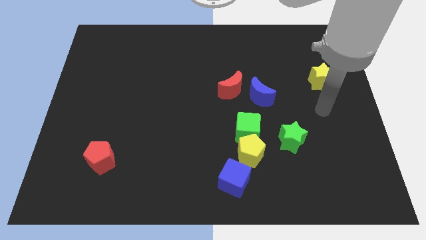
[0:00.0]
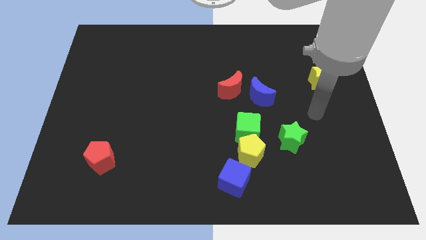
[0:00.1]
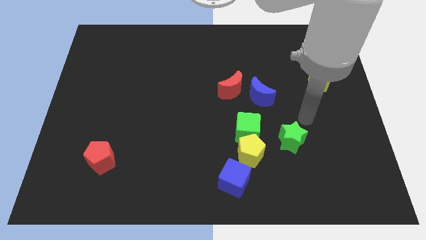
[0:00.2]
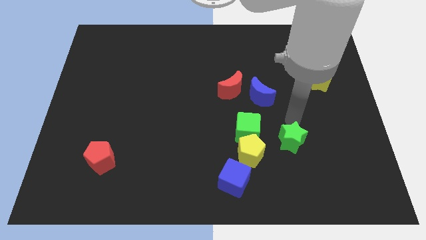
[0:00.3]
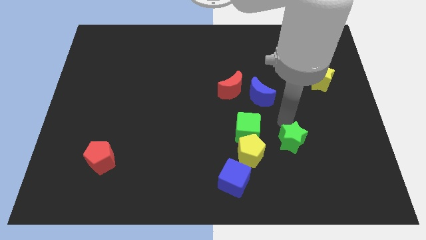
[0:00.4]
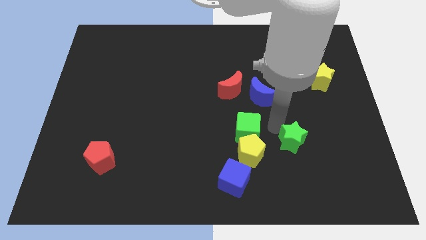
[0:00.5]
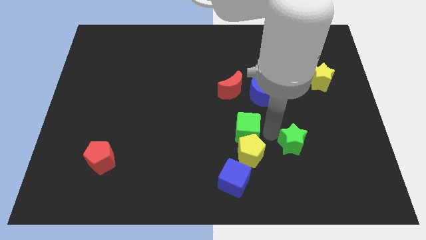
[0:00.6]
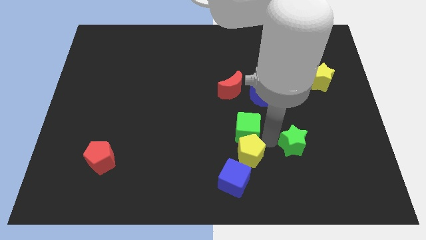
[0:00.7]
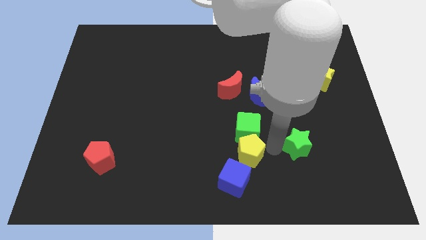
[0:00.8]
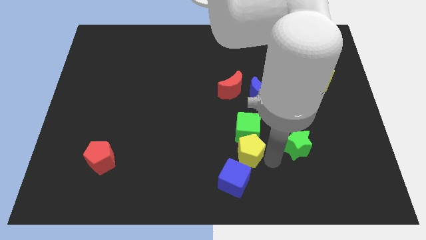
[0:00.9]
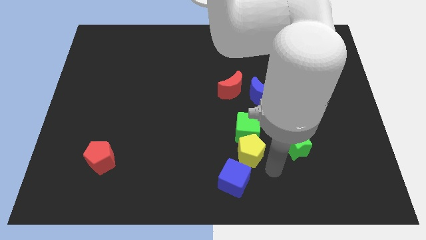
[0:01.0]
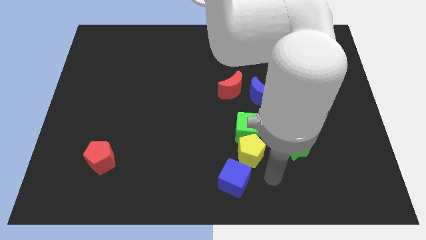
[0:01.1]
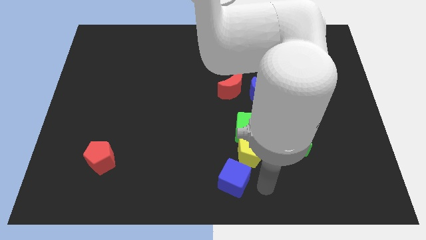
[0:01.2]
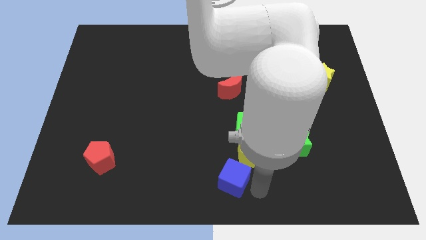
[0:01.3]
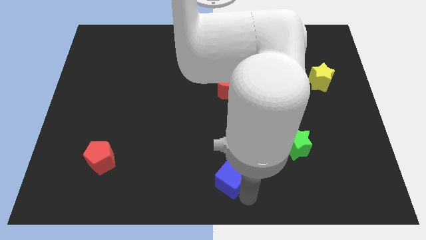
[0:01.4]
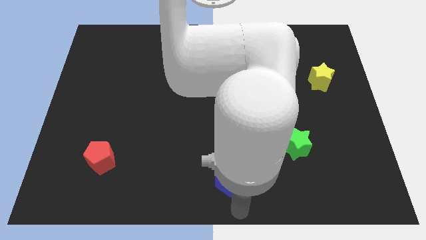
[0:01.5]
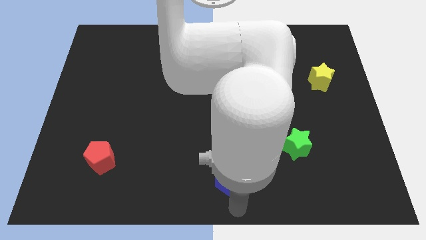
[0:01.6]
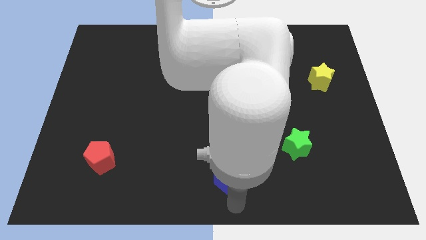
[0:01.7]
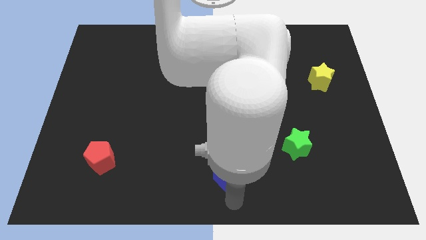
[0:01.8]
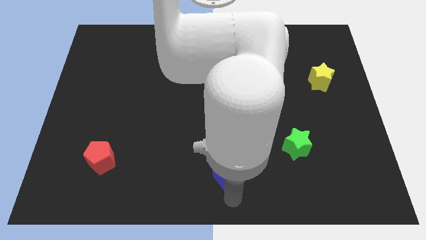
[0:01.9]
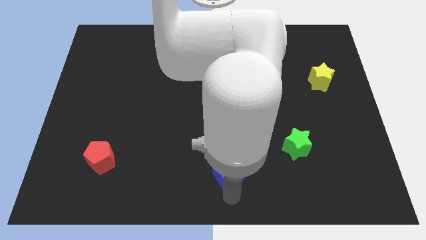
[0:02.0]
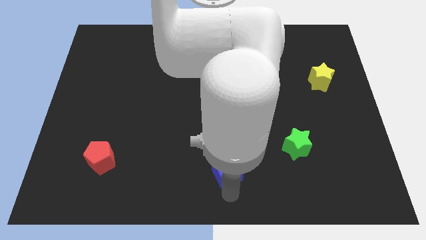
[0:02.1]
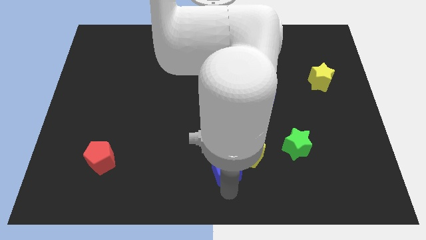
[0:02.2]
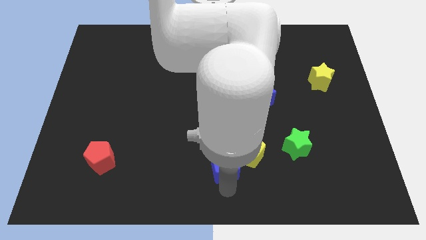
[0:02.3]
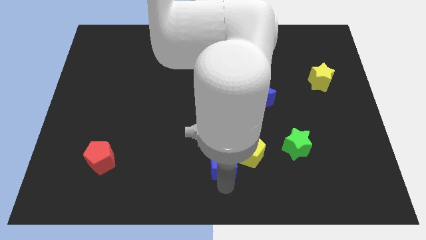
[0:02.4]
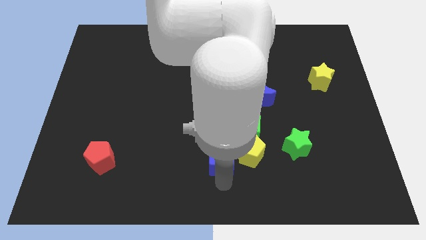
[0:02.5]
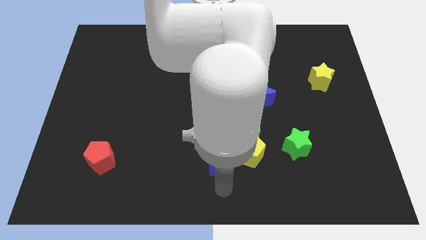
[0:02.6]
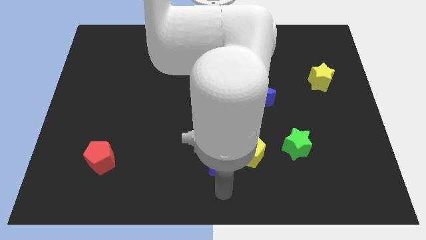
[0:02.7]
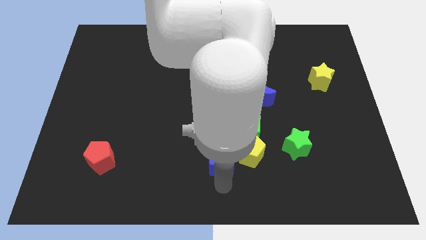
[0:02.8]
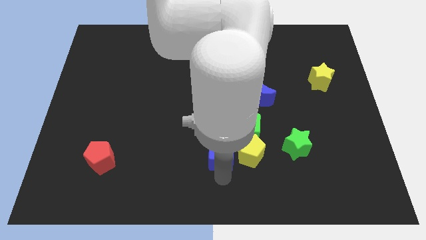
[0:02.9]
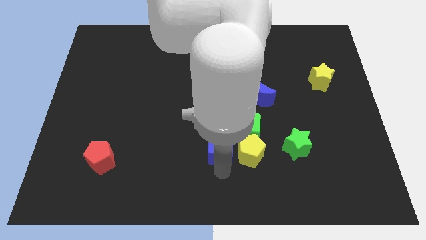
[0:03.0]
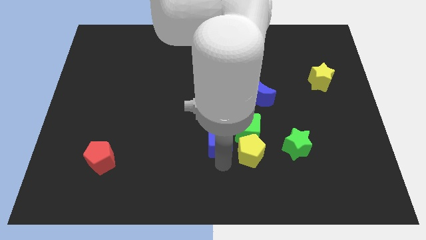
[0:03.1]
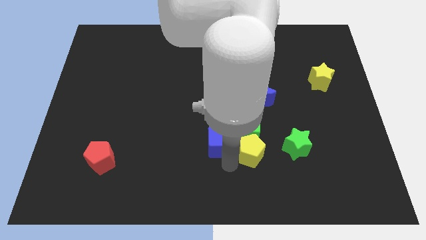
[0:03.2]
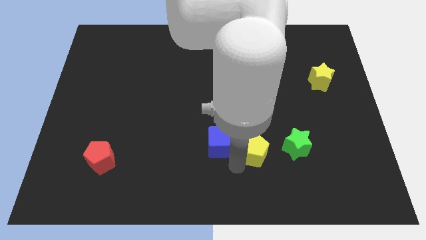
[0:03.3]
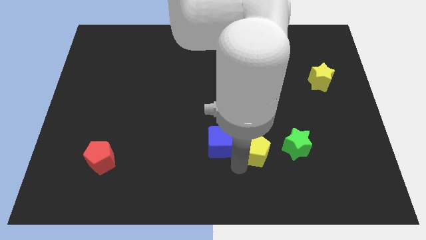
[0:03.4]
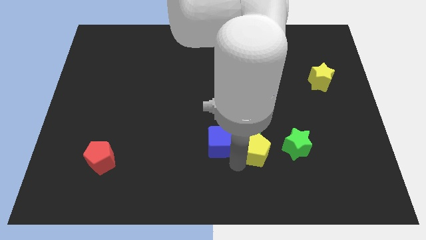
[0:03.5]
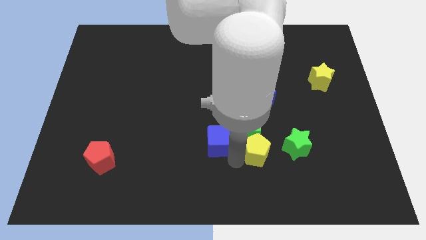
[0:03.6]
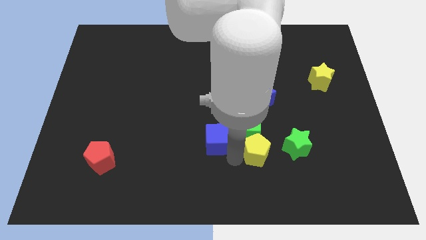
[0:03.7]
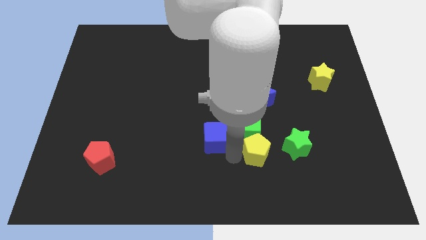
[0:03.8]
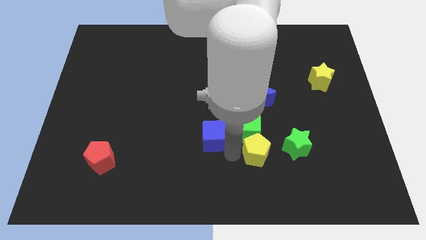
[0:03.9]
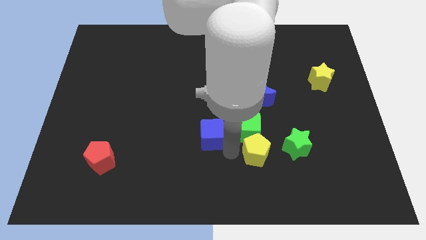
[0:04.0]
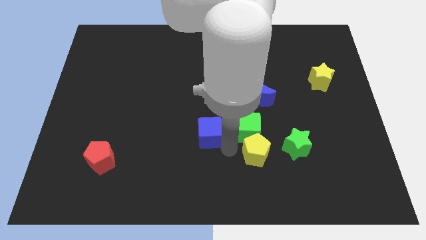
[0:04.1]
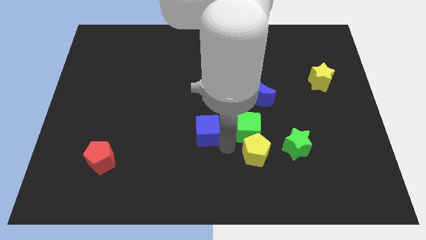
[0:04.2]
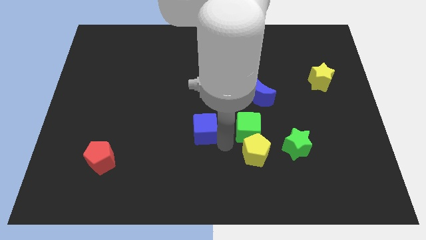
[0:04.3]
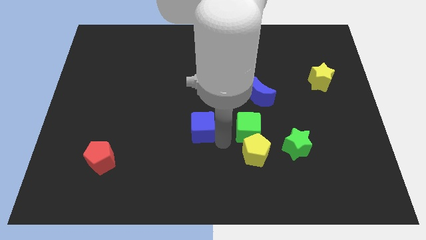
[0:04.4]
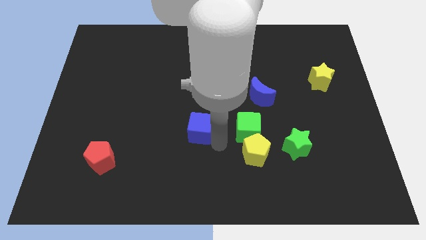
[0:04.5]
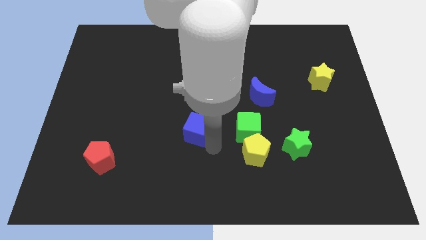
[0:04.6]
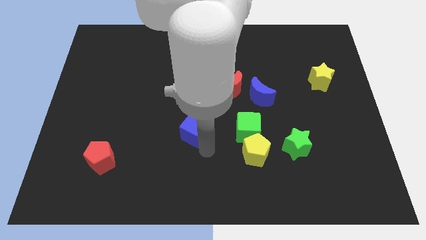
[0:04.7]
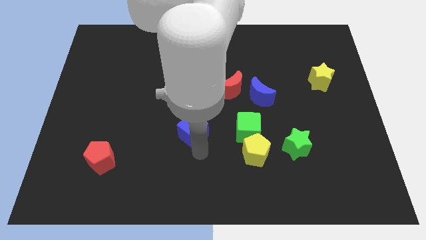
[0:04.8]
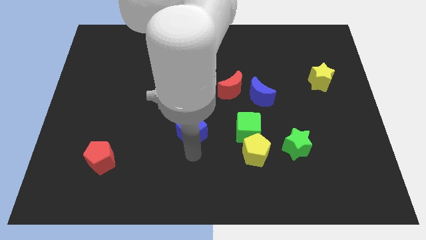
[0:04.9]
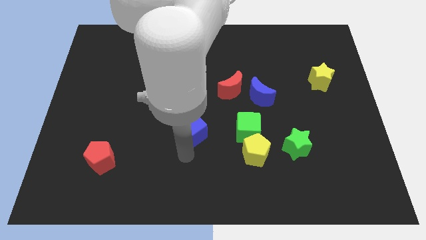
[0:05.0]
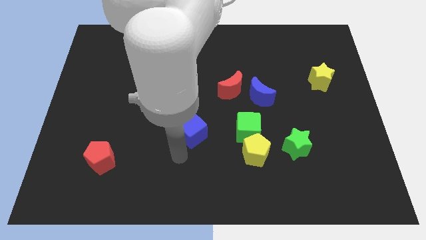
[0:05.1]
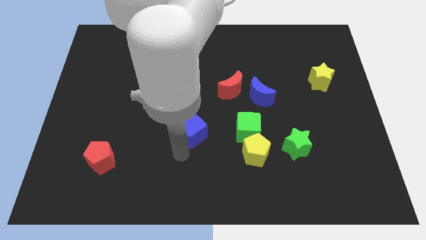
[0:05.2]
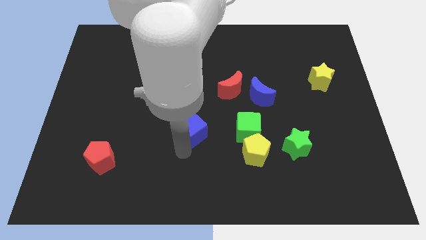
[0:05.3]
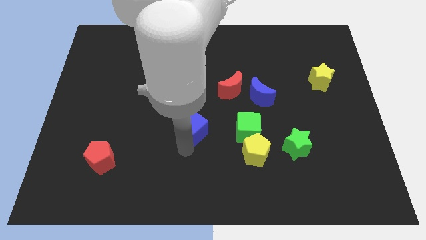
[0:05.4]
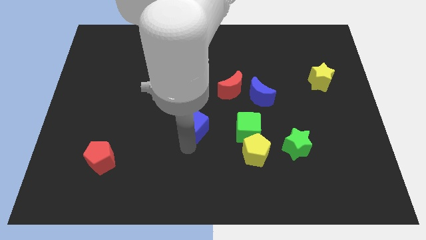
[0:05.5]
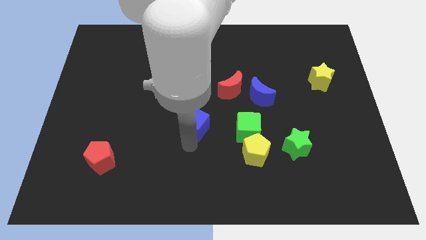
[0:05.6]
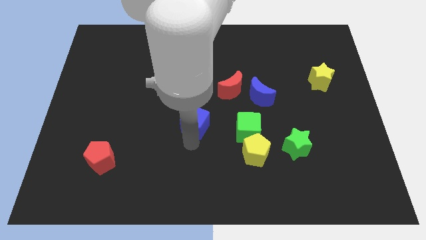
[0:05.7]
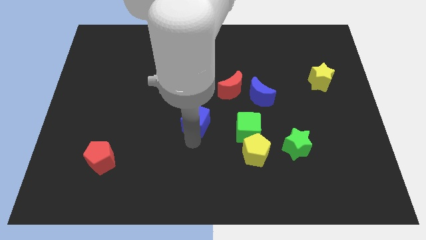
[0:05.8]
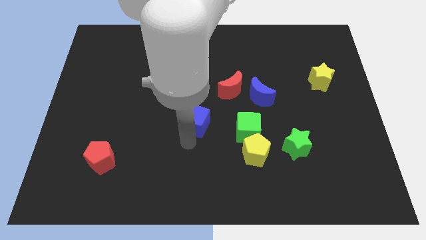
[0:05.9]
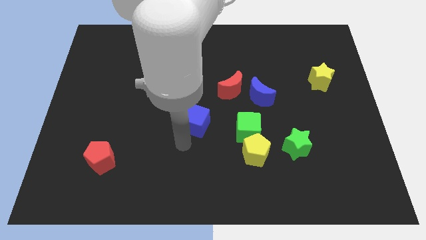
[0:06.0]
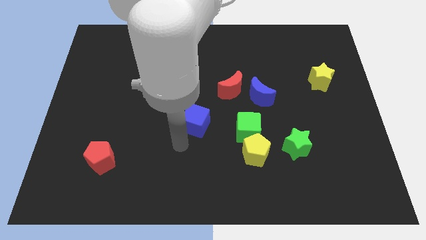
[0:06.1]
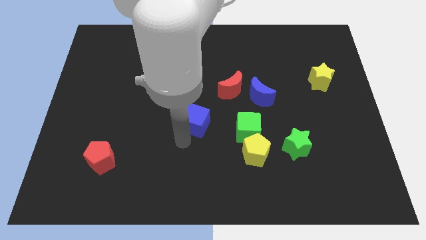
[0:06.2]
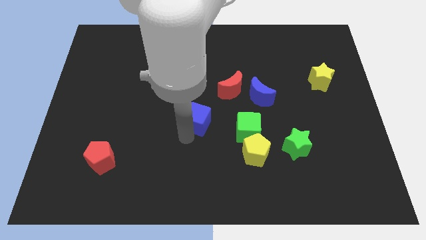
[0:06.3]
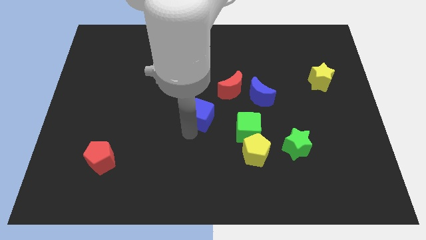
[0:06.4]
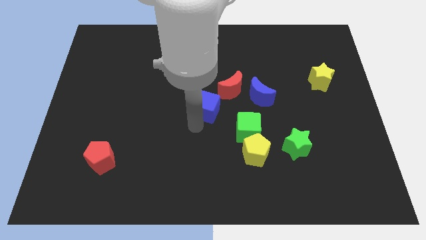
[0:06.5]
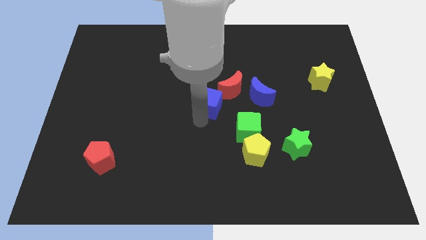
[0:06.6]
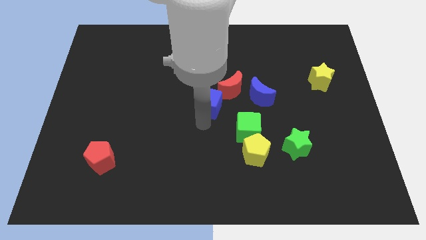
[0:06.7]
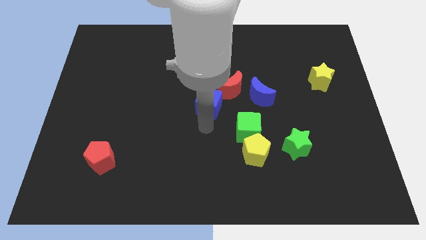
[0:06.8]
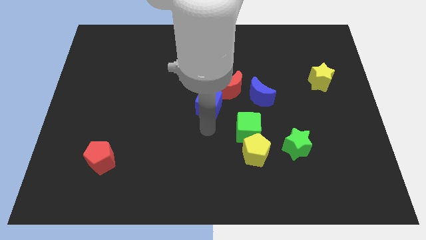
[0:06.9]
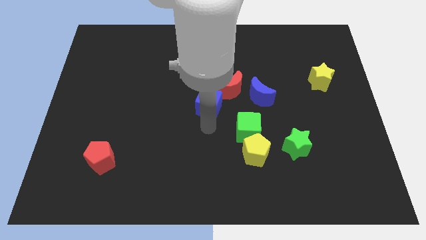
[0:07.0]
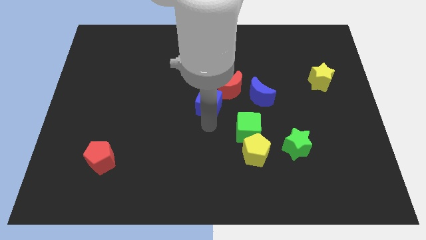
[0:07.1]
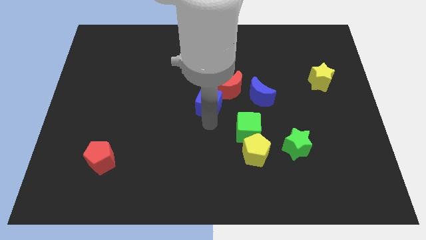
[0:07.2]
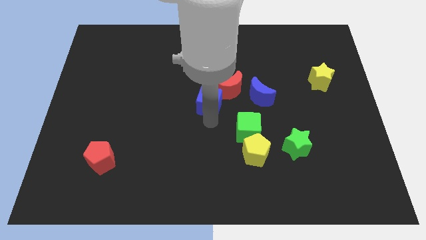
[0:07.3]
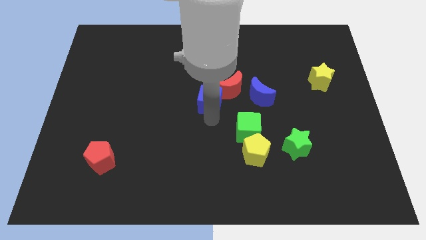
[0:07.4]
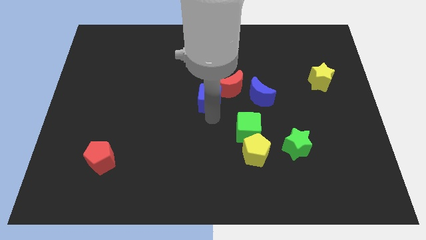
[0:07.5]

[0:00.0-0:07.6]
slide the blue cube up

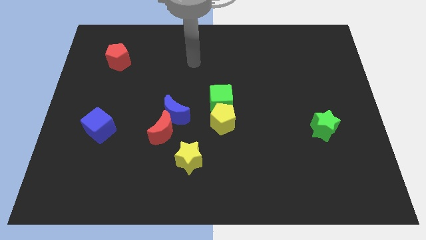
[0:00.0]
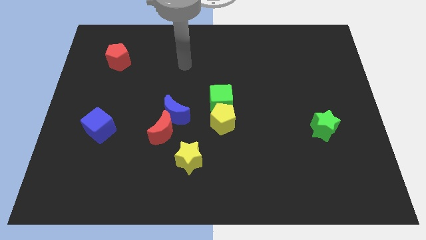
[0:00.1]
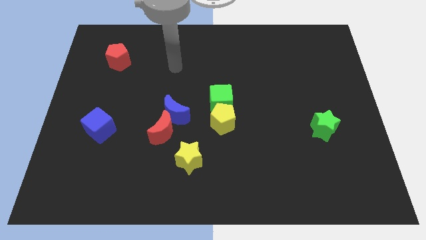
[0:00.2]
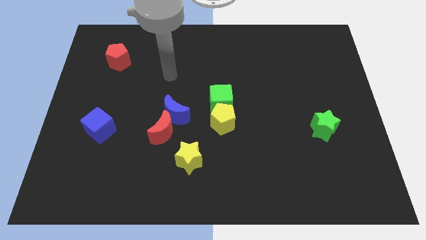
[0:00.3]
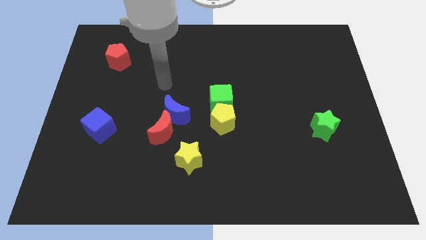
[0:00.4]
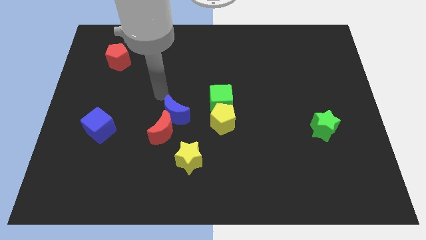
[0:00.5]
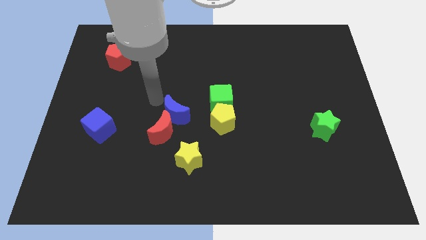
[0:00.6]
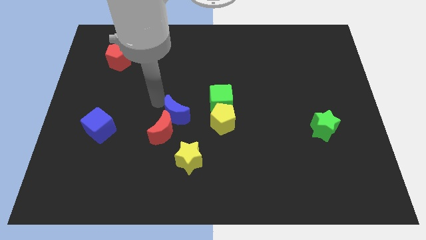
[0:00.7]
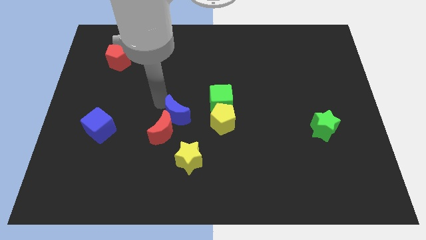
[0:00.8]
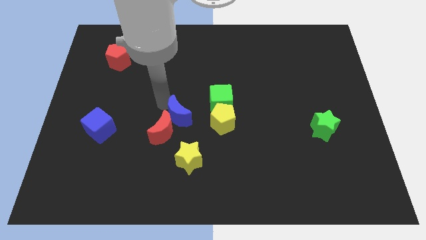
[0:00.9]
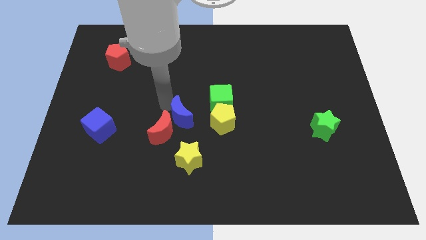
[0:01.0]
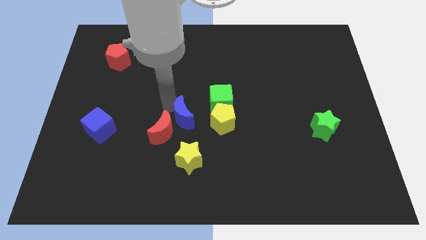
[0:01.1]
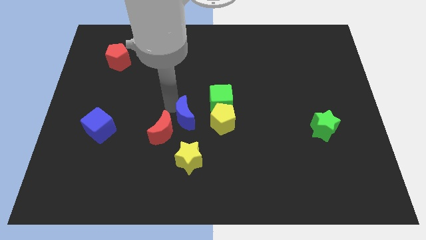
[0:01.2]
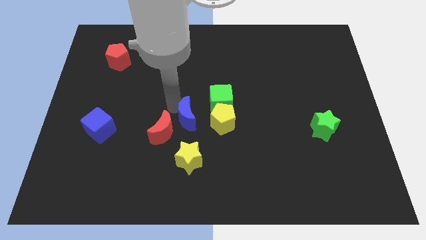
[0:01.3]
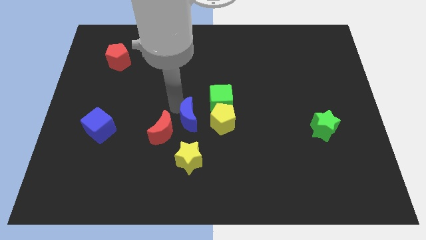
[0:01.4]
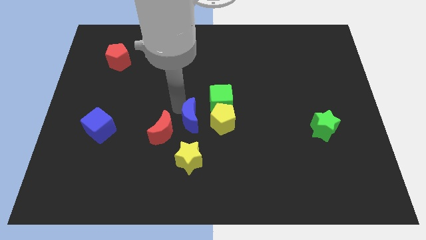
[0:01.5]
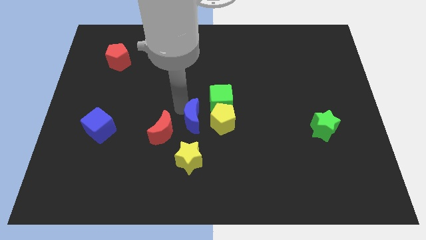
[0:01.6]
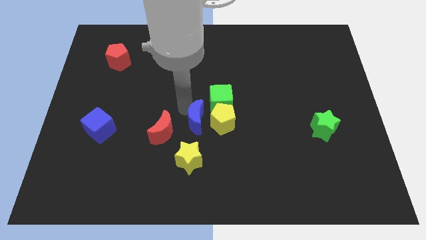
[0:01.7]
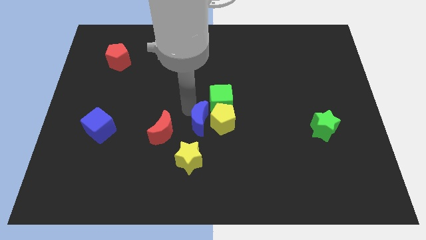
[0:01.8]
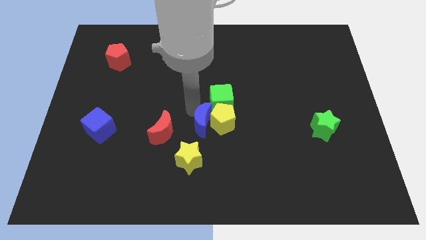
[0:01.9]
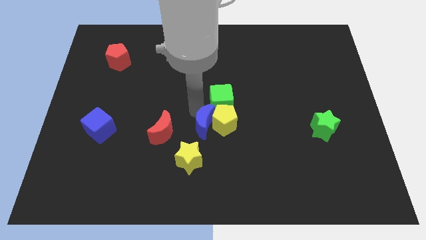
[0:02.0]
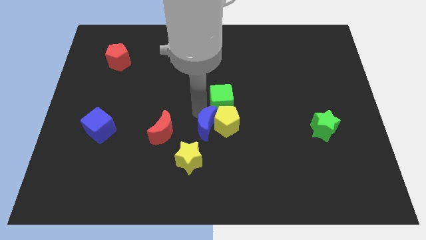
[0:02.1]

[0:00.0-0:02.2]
slightly move the blue moon downwards and right diagonally
